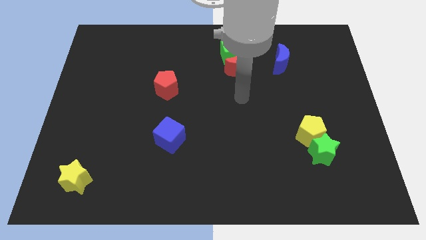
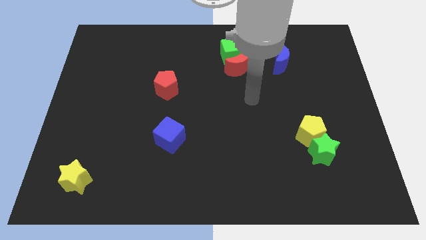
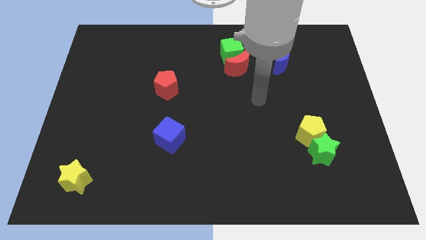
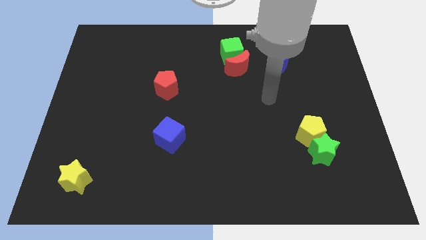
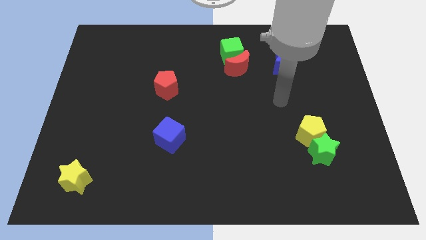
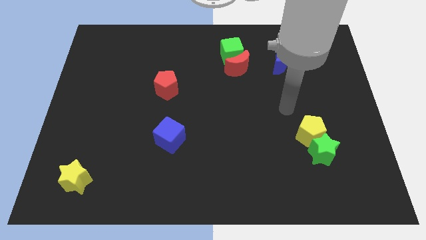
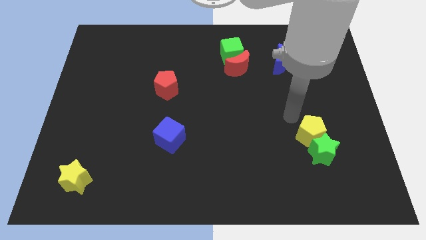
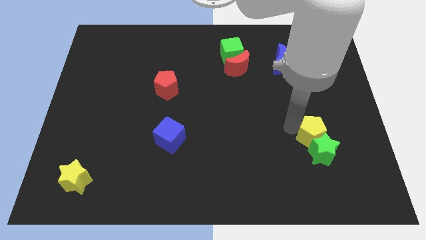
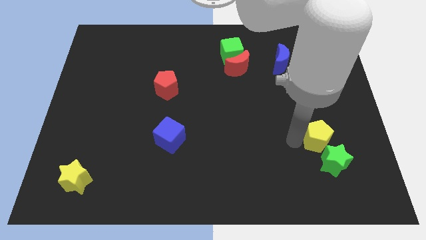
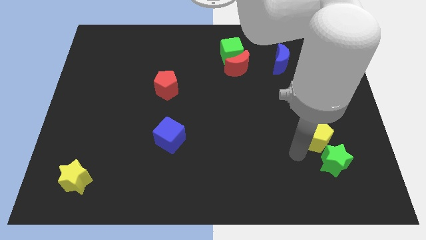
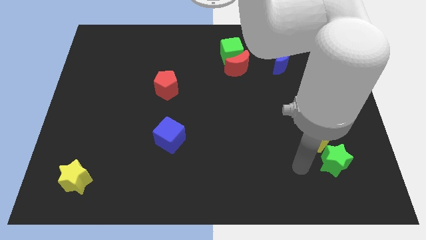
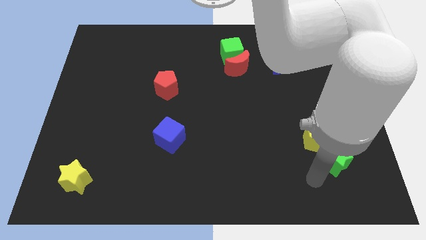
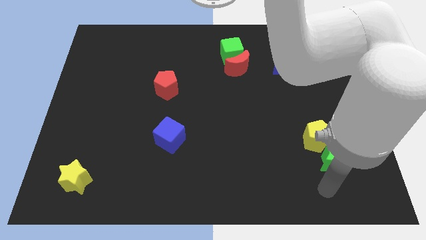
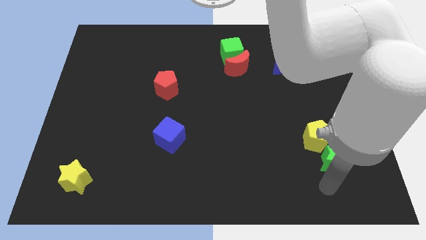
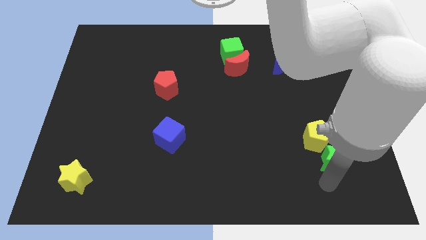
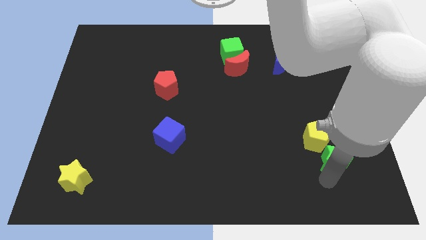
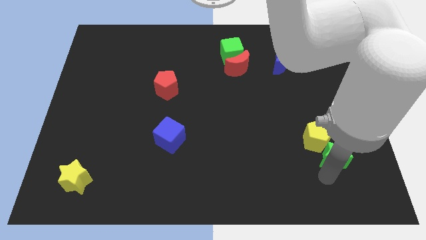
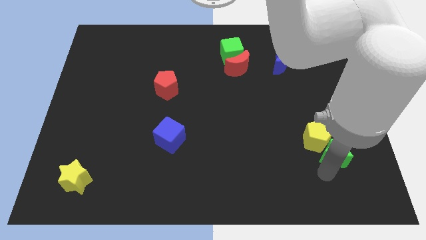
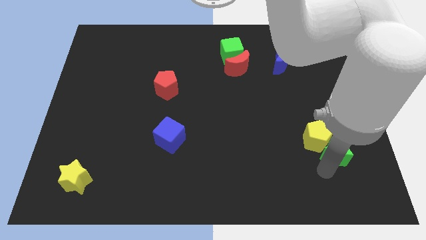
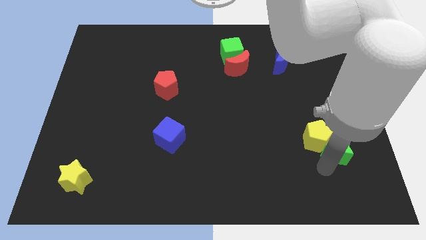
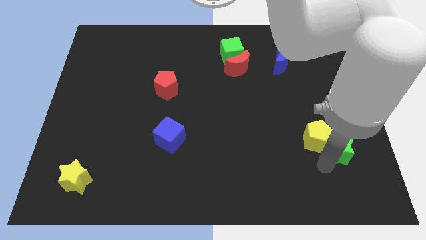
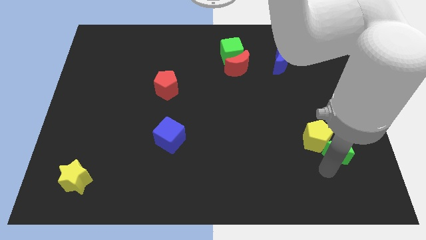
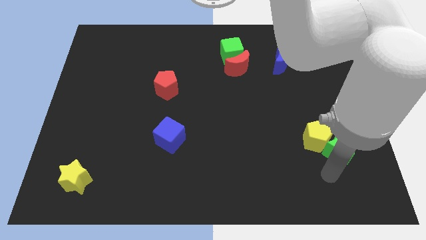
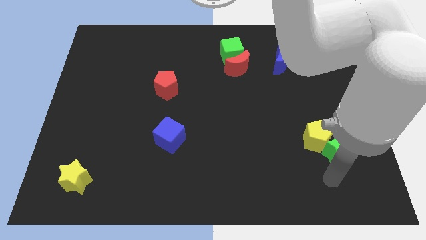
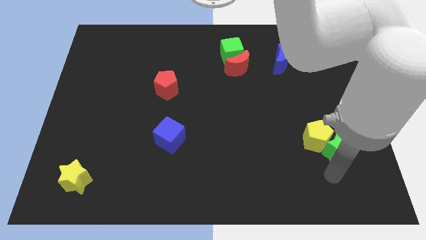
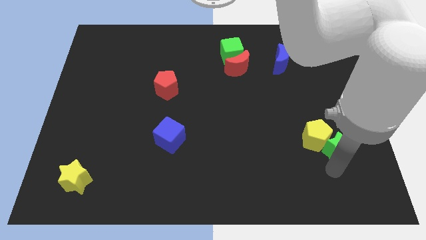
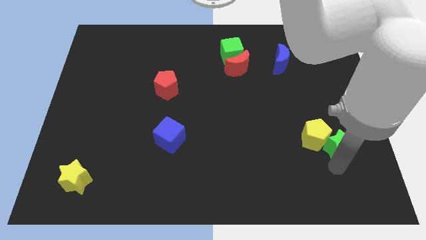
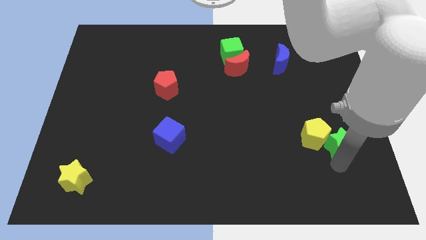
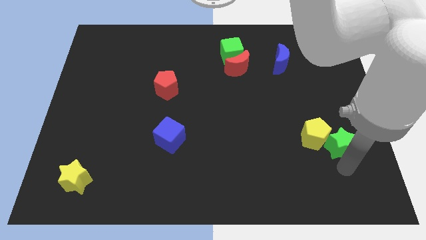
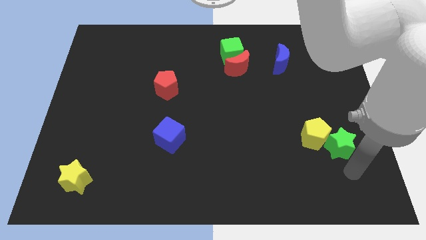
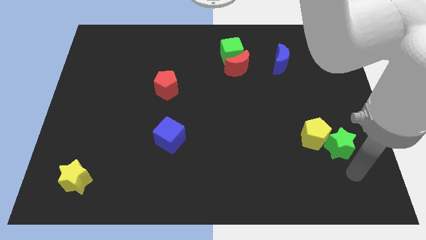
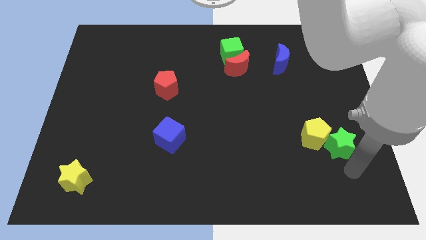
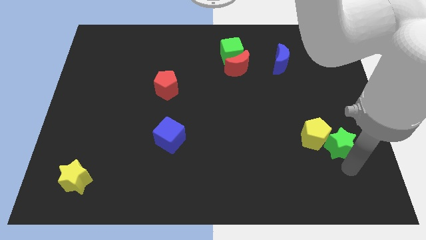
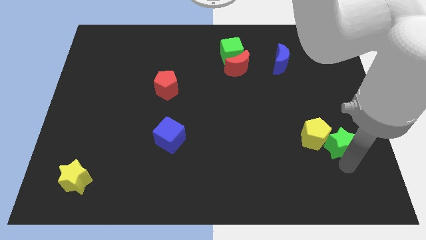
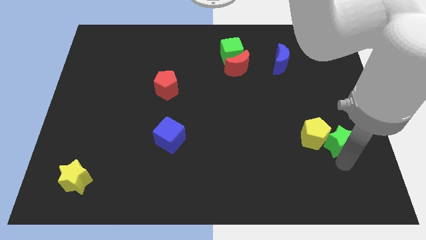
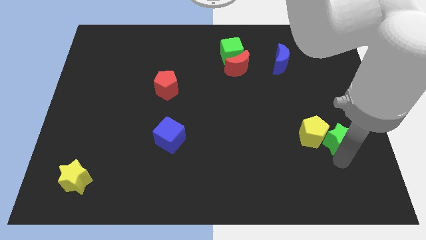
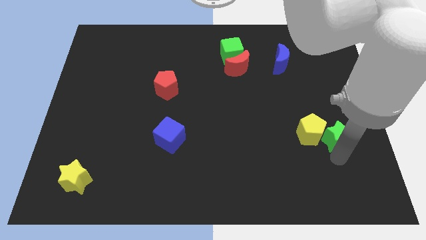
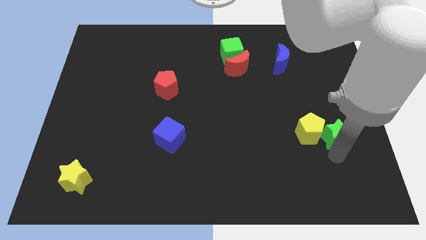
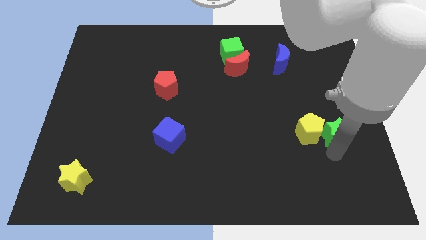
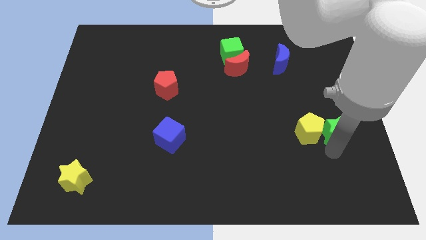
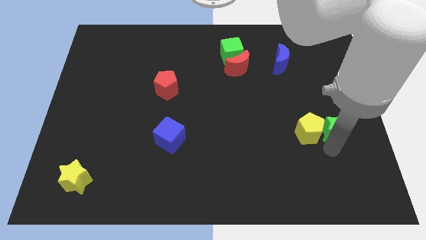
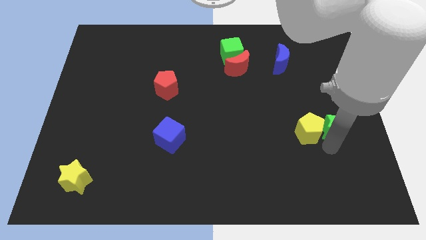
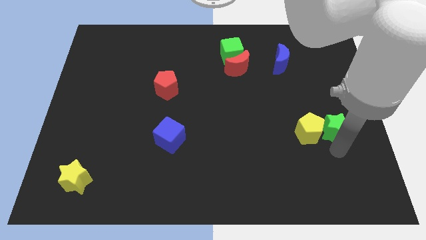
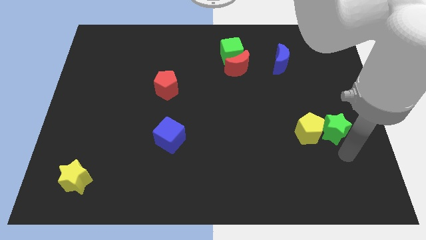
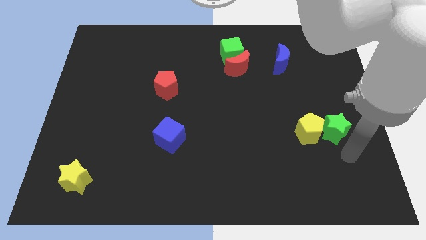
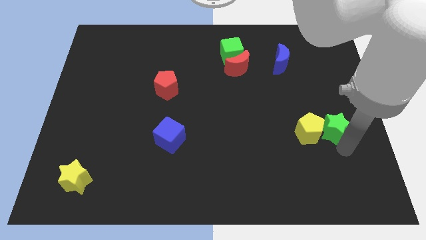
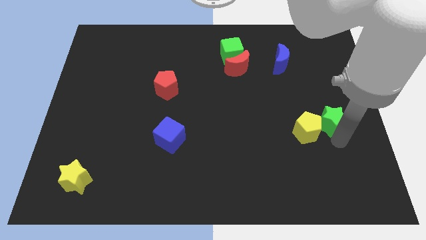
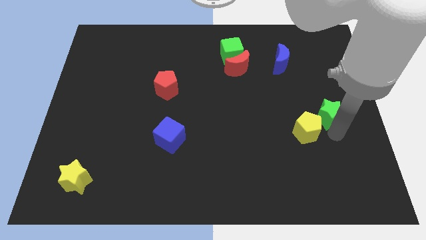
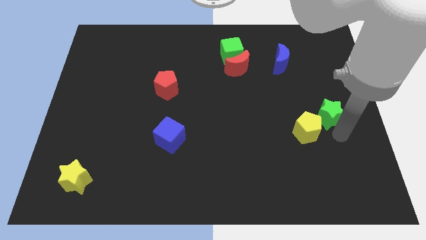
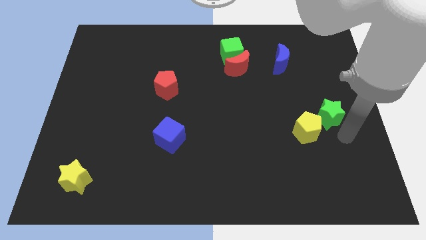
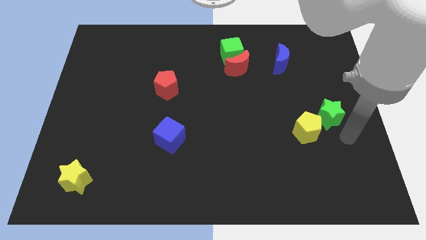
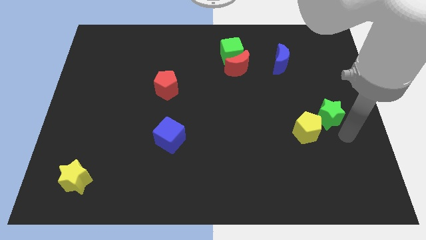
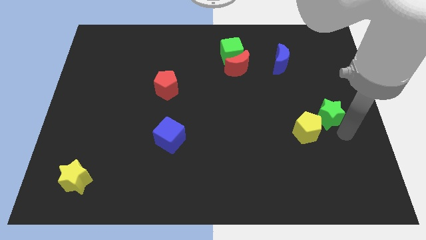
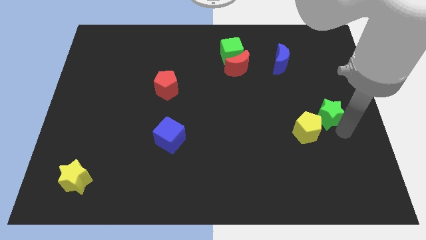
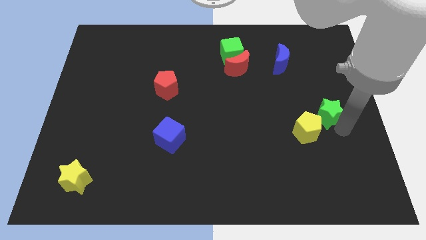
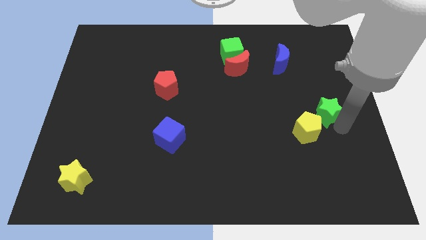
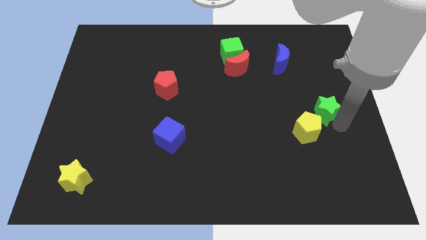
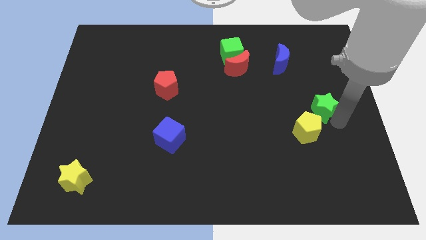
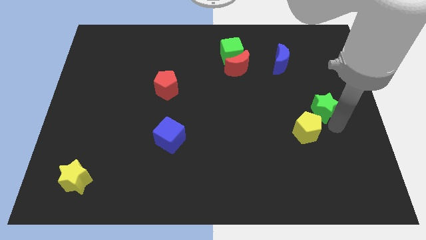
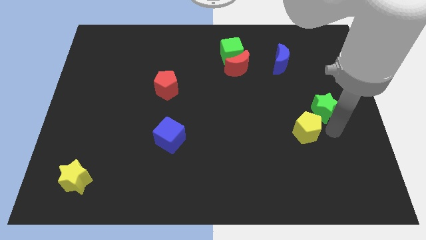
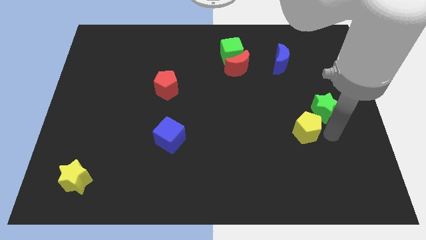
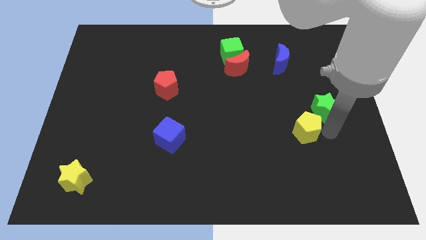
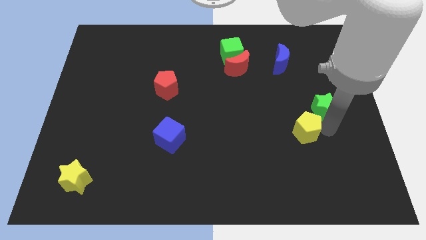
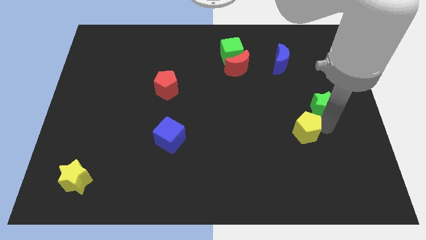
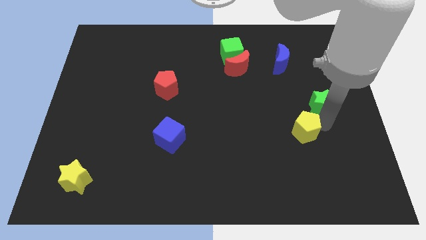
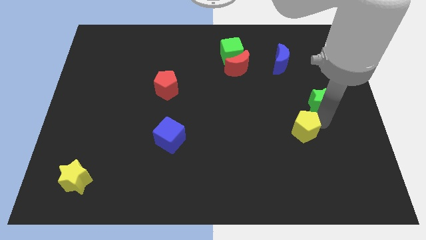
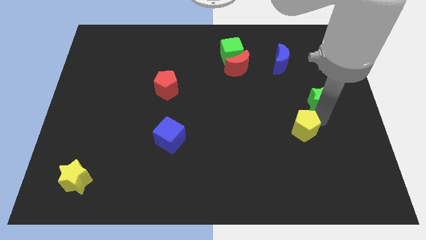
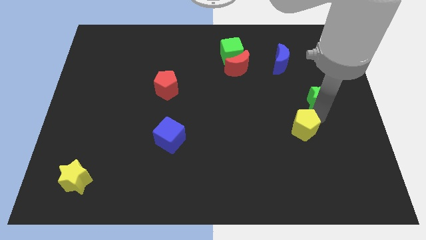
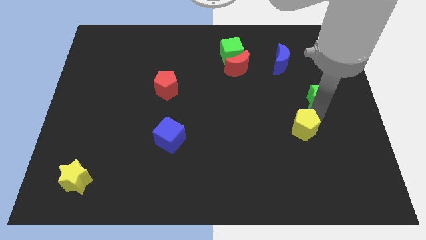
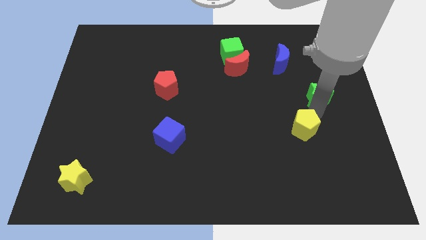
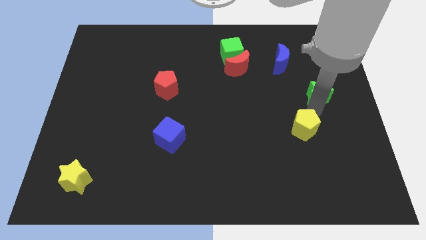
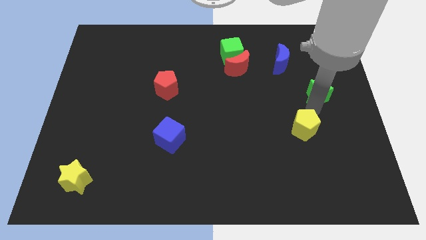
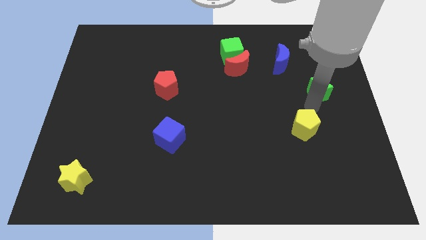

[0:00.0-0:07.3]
push the green star to the bottom right of the blue moon

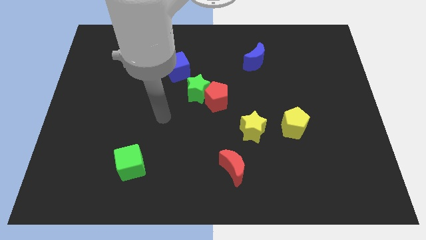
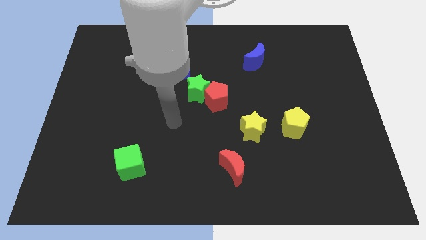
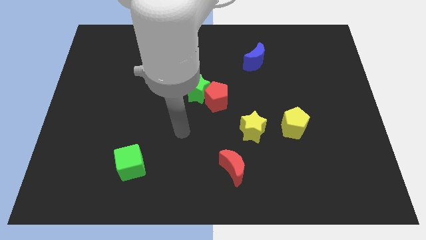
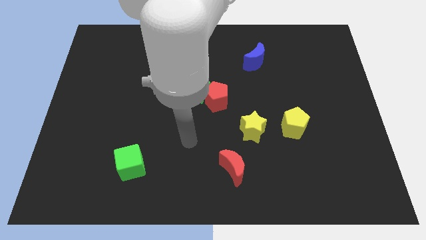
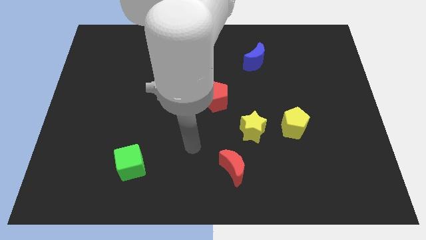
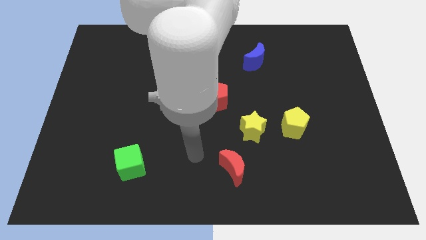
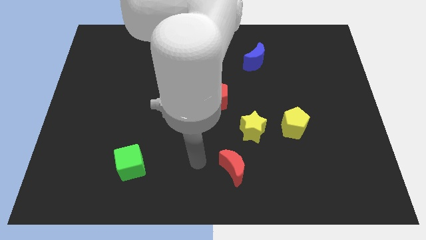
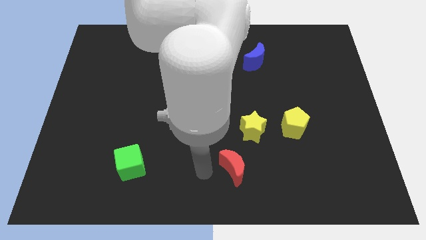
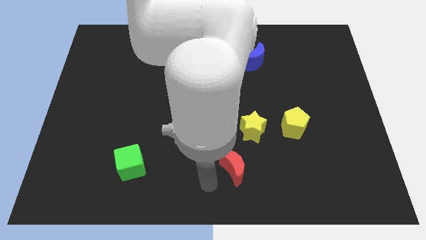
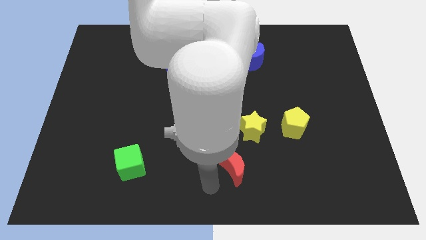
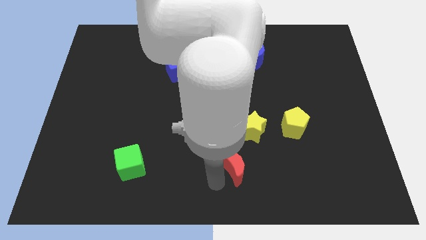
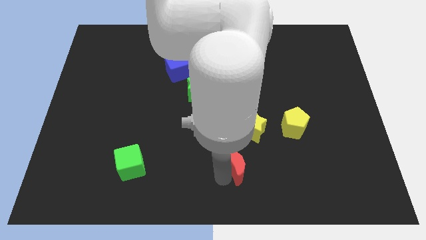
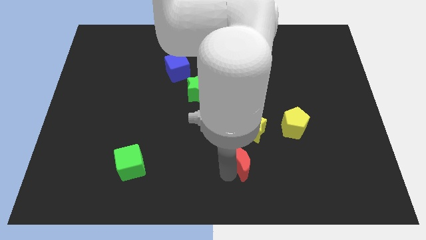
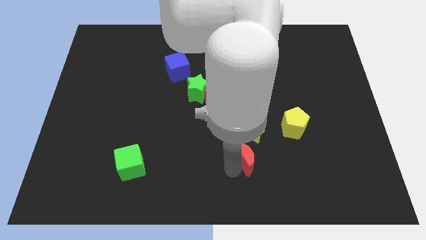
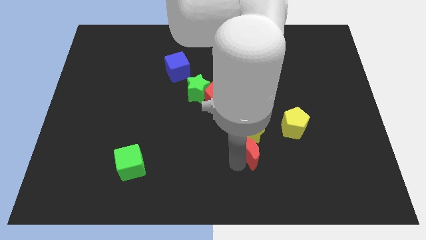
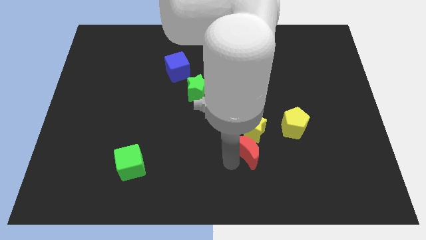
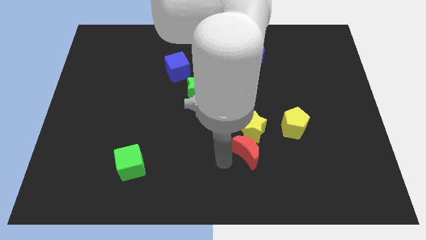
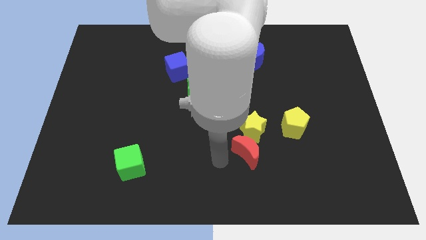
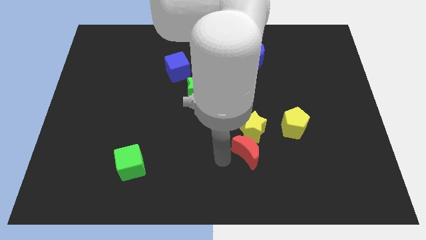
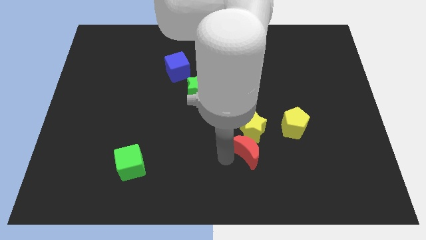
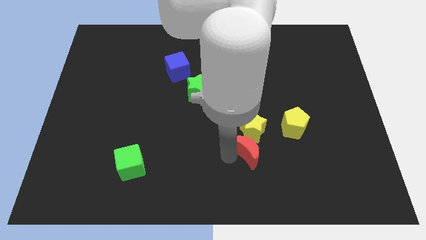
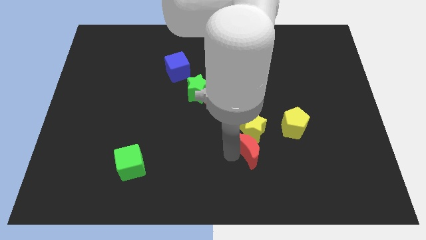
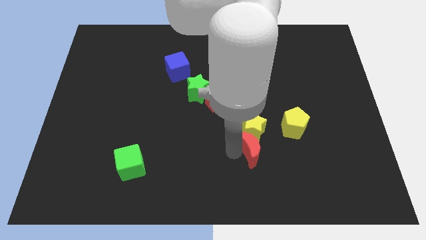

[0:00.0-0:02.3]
move the red moon diagonally down and to the left of the yellow pentagon
